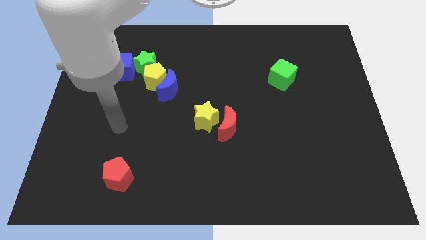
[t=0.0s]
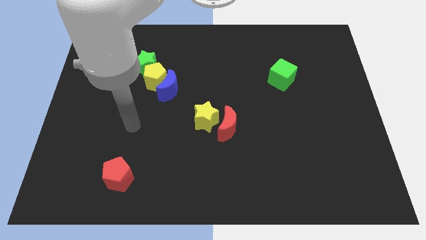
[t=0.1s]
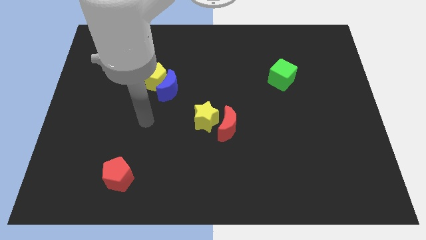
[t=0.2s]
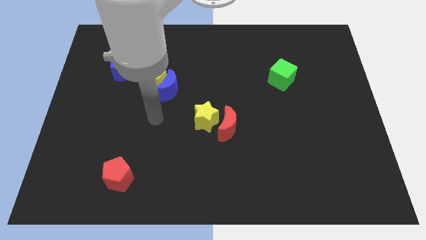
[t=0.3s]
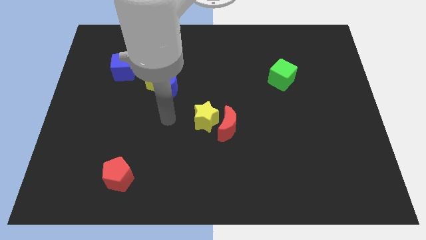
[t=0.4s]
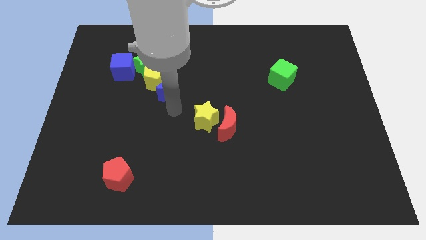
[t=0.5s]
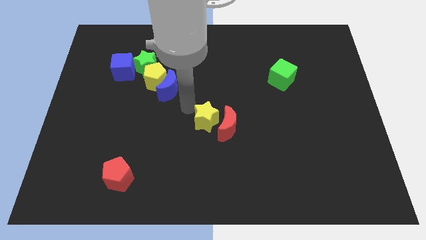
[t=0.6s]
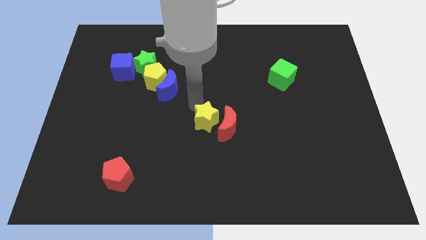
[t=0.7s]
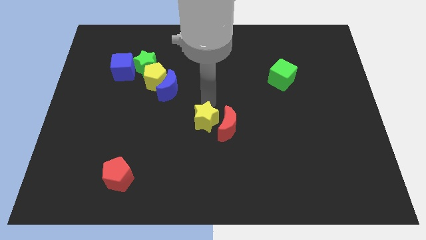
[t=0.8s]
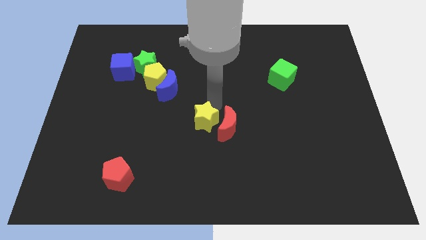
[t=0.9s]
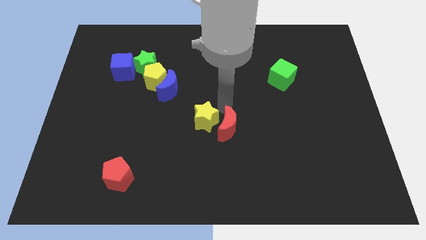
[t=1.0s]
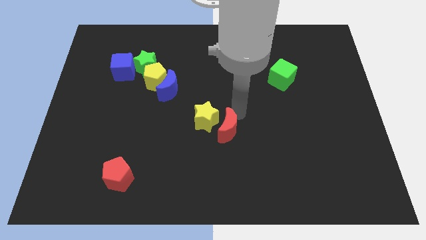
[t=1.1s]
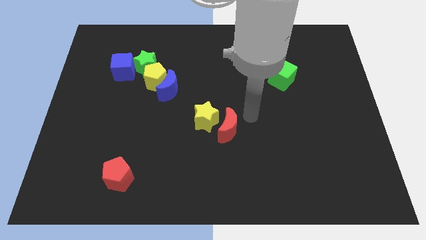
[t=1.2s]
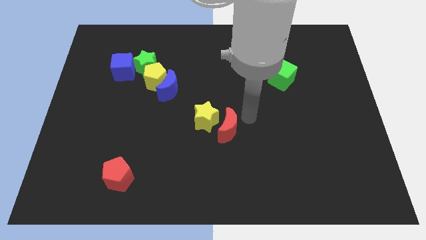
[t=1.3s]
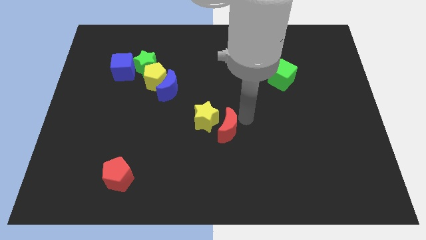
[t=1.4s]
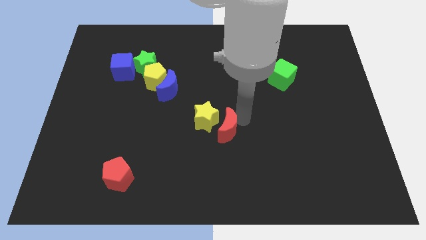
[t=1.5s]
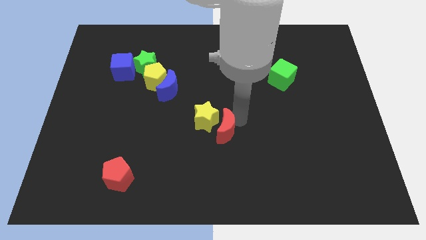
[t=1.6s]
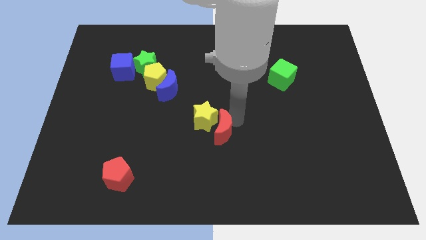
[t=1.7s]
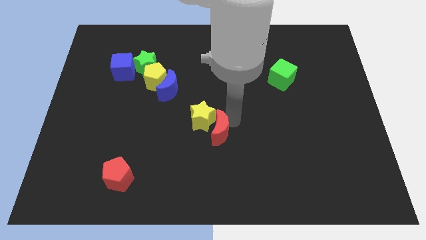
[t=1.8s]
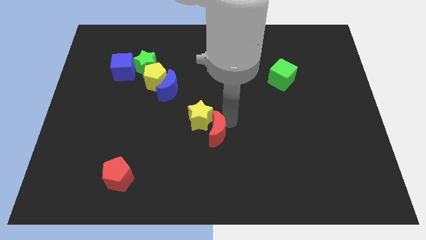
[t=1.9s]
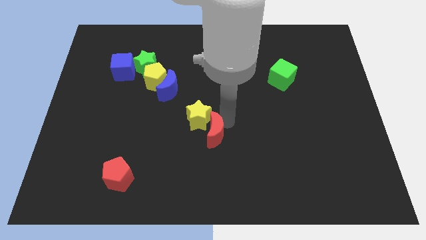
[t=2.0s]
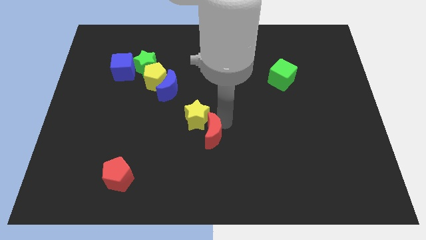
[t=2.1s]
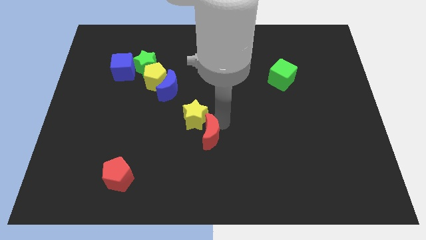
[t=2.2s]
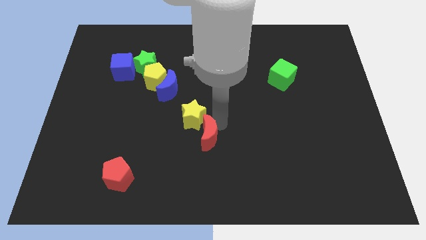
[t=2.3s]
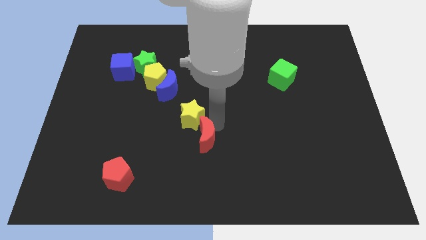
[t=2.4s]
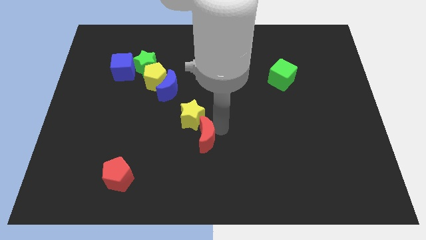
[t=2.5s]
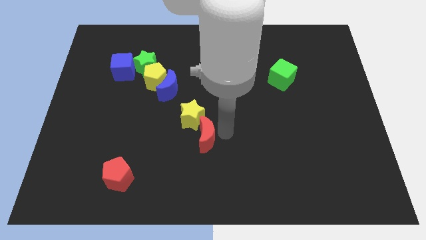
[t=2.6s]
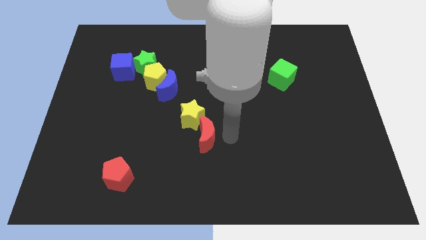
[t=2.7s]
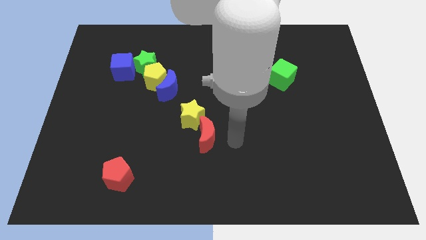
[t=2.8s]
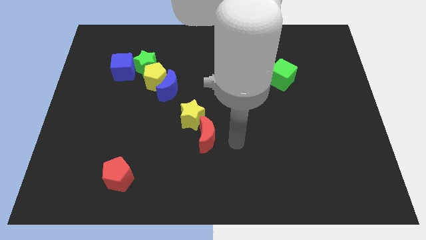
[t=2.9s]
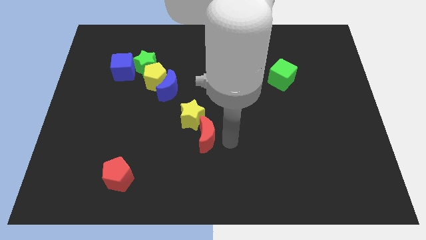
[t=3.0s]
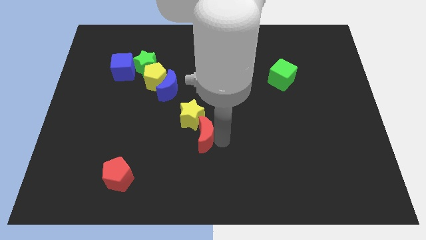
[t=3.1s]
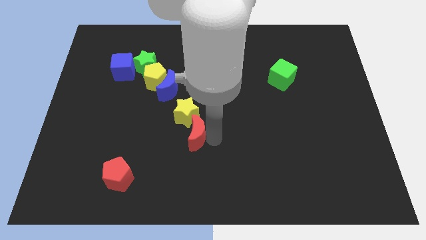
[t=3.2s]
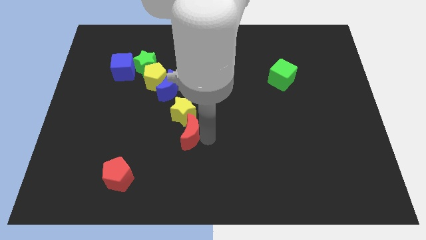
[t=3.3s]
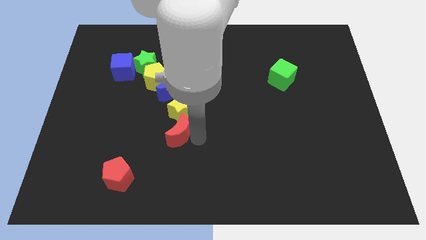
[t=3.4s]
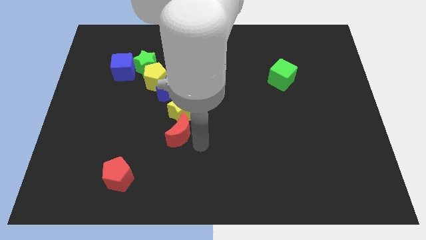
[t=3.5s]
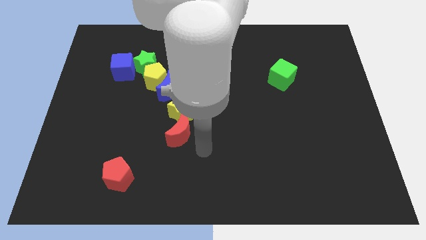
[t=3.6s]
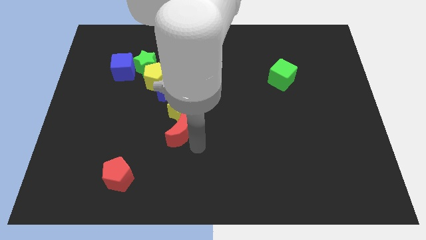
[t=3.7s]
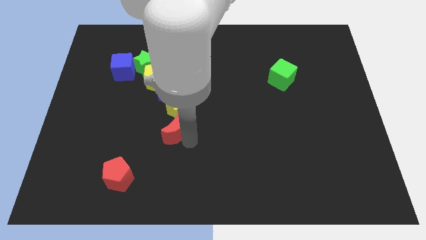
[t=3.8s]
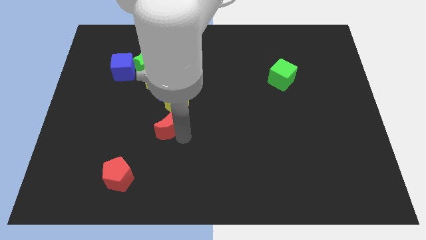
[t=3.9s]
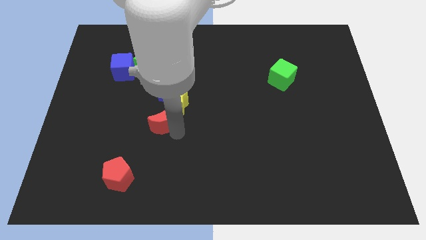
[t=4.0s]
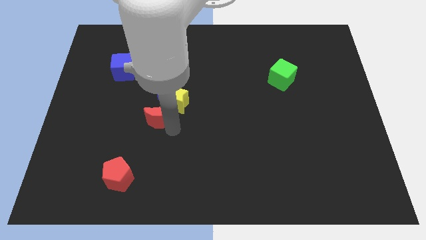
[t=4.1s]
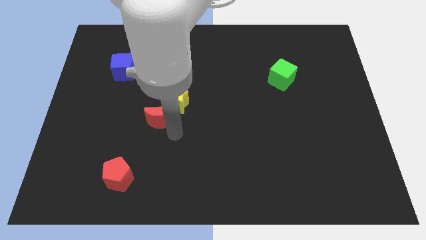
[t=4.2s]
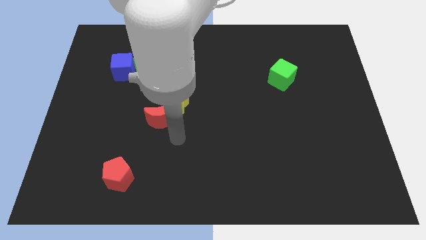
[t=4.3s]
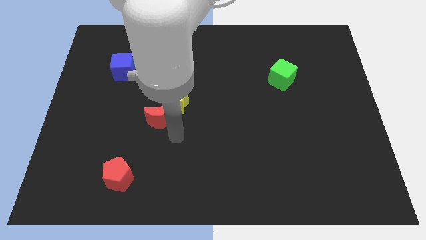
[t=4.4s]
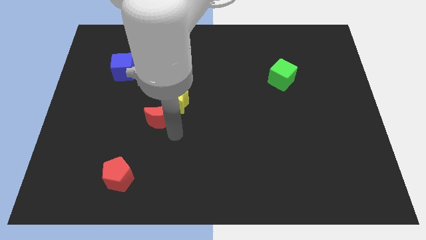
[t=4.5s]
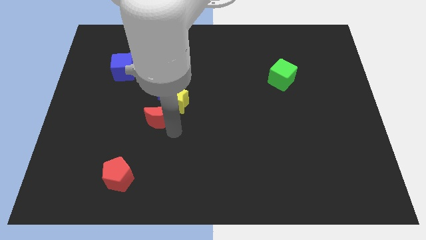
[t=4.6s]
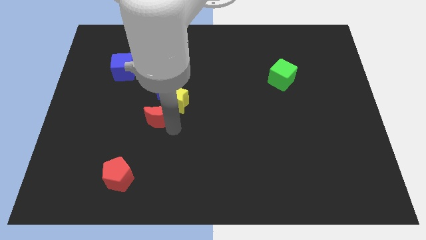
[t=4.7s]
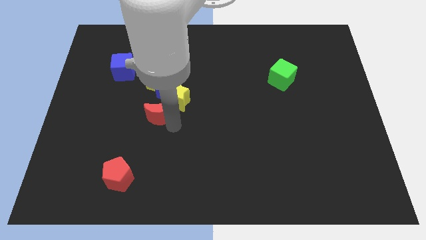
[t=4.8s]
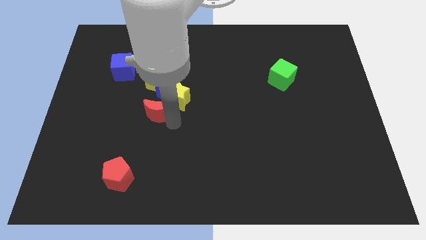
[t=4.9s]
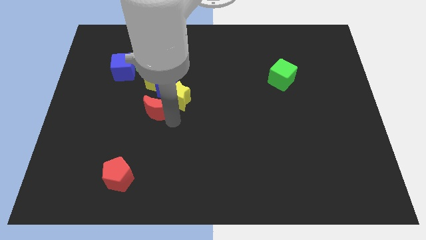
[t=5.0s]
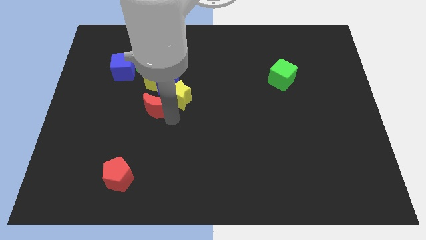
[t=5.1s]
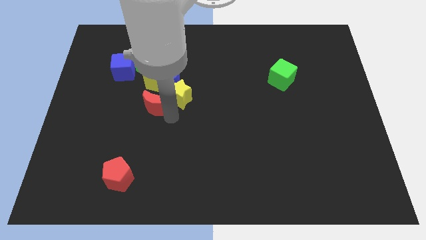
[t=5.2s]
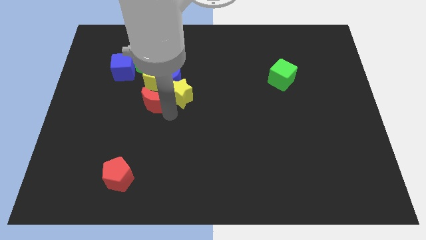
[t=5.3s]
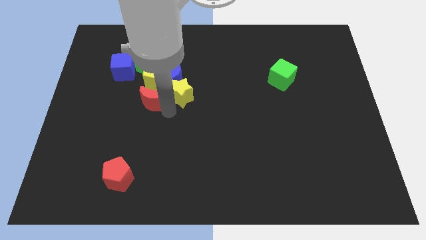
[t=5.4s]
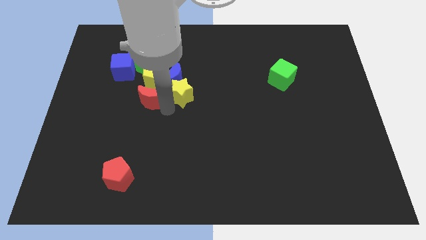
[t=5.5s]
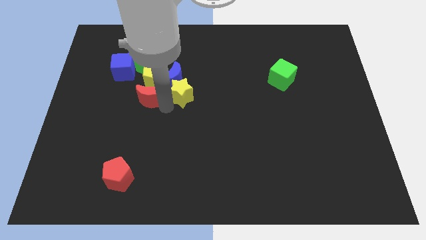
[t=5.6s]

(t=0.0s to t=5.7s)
slide the red moon to the yellow pentagon

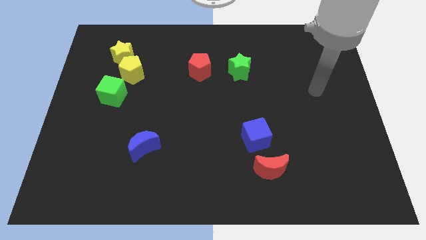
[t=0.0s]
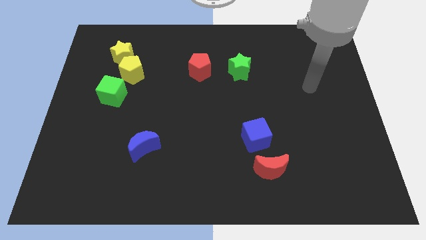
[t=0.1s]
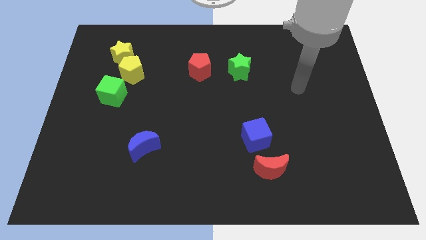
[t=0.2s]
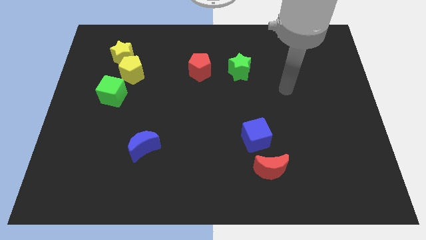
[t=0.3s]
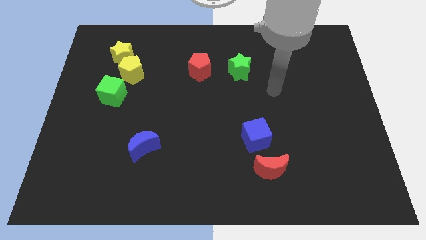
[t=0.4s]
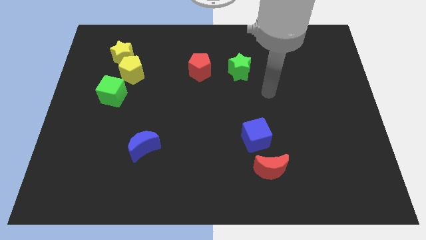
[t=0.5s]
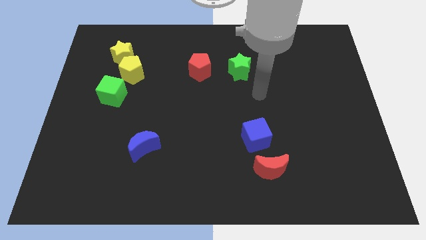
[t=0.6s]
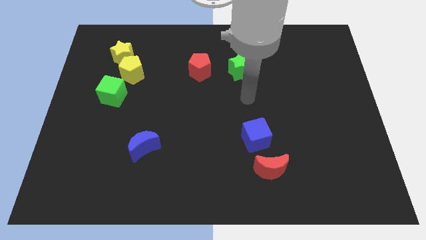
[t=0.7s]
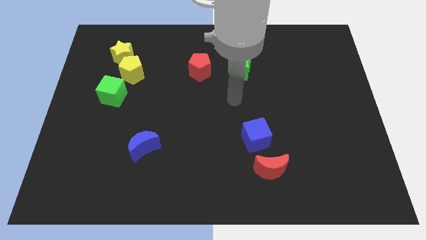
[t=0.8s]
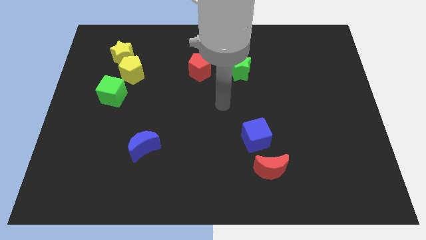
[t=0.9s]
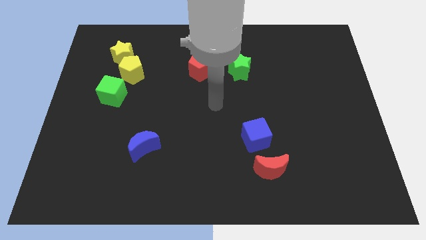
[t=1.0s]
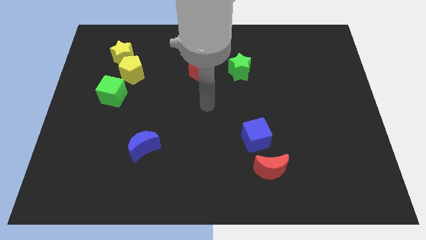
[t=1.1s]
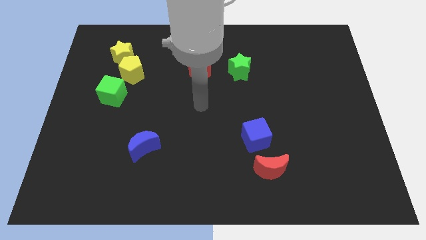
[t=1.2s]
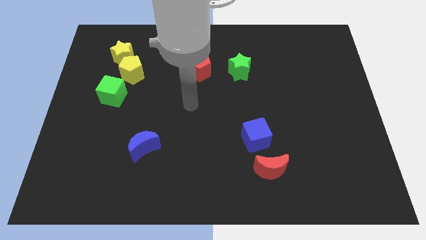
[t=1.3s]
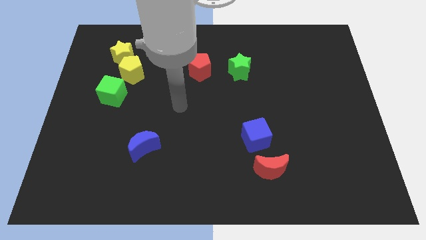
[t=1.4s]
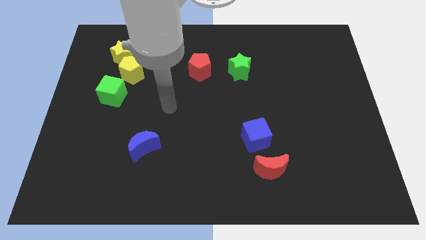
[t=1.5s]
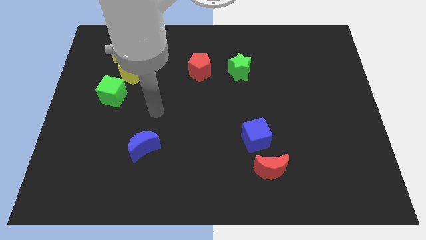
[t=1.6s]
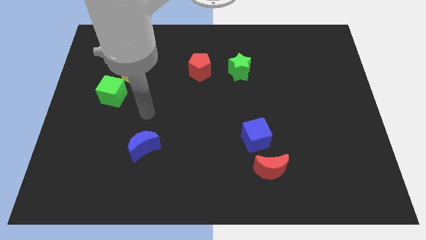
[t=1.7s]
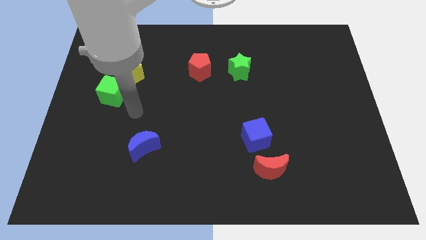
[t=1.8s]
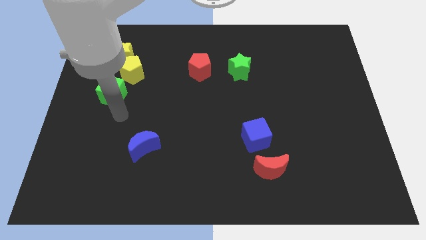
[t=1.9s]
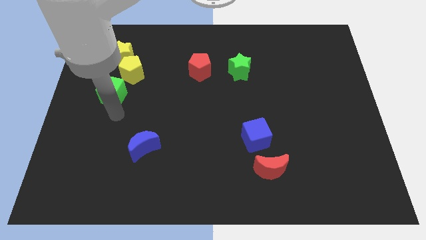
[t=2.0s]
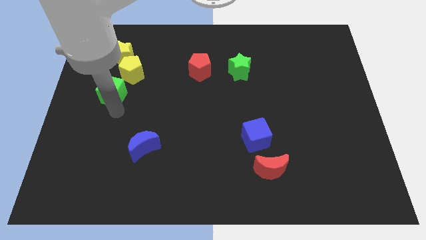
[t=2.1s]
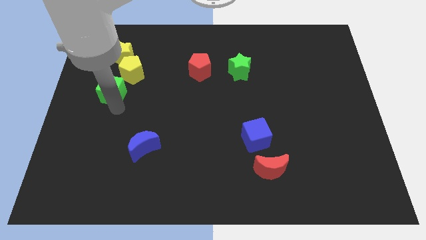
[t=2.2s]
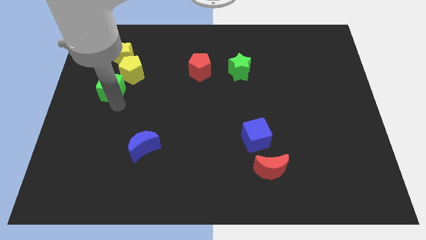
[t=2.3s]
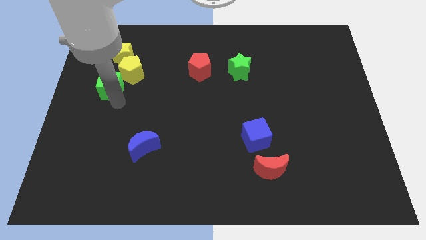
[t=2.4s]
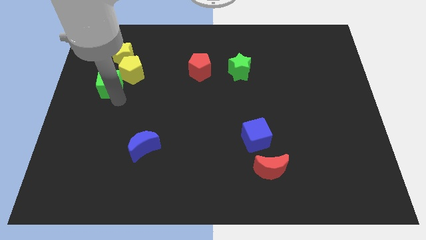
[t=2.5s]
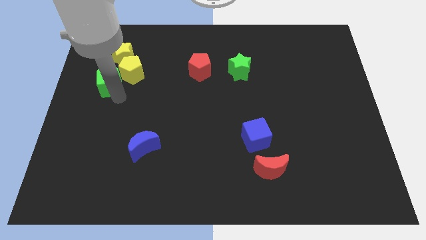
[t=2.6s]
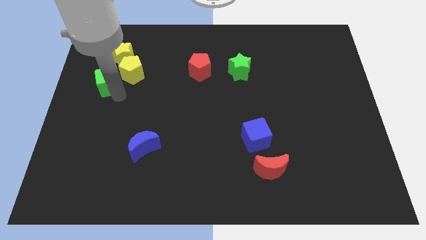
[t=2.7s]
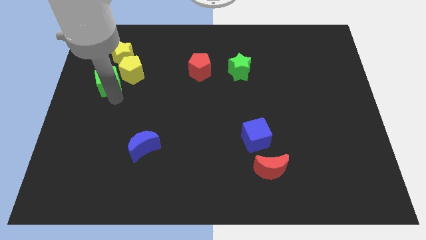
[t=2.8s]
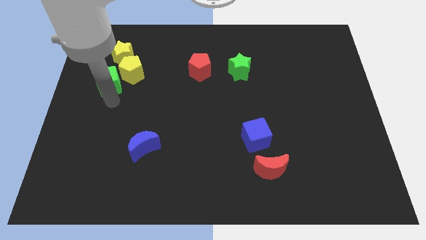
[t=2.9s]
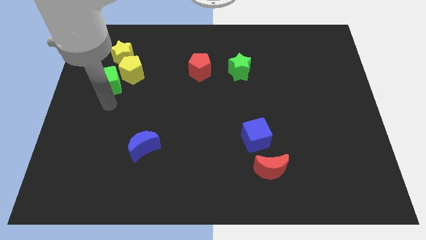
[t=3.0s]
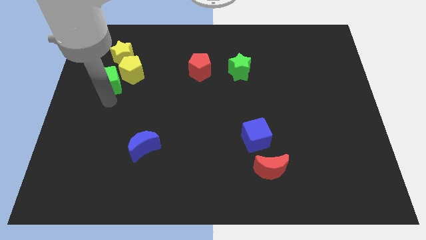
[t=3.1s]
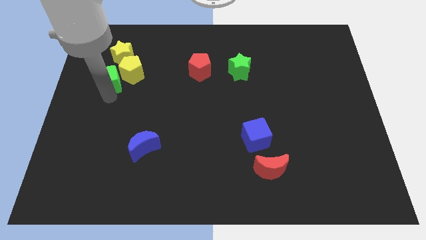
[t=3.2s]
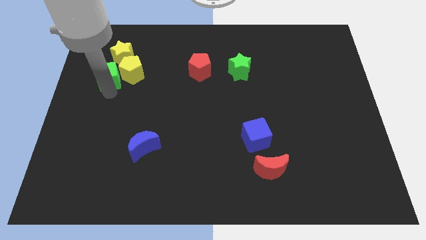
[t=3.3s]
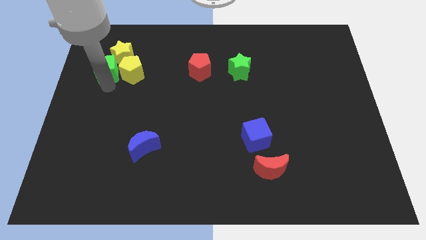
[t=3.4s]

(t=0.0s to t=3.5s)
put the green cube next to the yellow star
